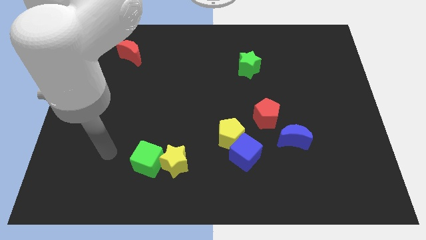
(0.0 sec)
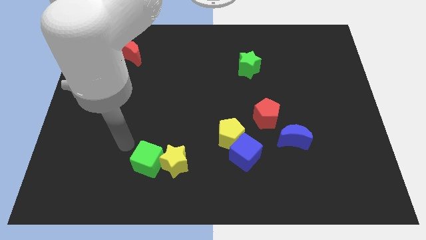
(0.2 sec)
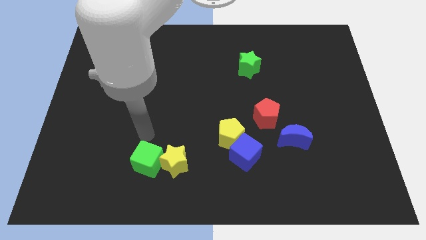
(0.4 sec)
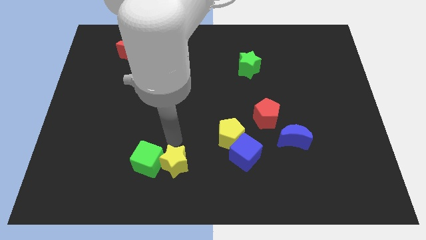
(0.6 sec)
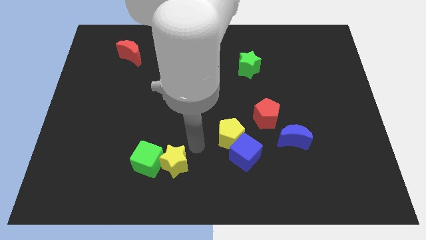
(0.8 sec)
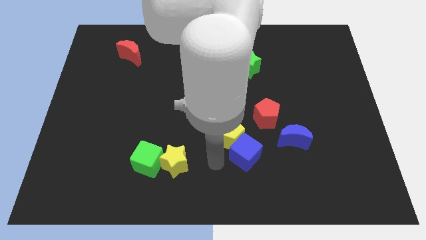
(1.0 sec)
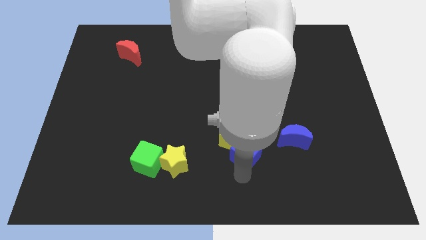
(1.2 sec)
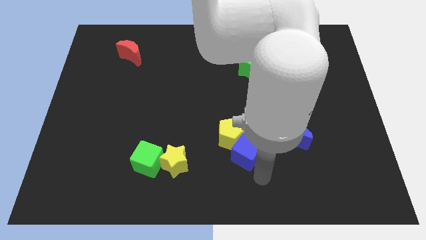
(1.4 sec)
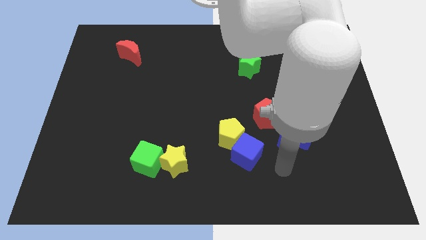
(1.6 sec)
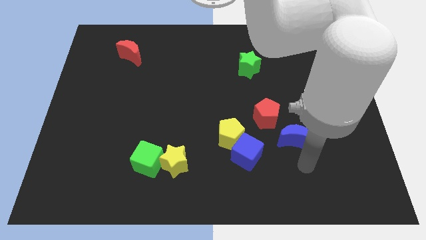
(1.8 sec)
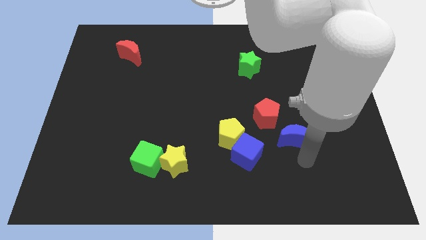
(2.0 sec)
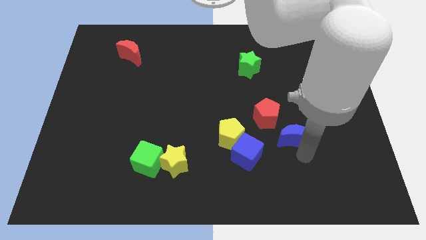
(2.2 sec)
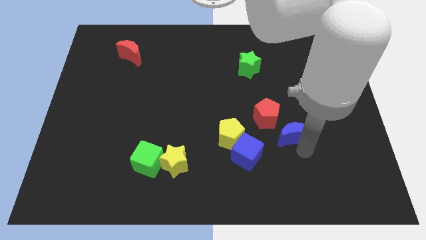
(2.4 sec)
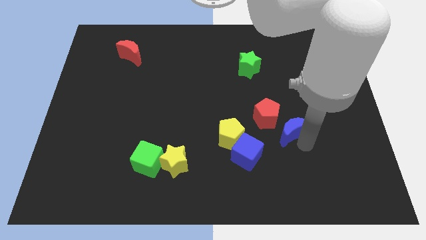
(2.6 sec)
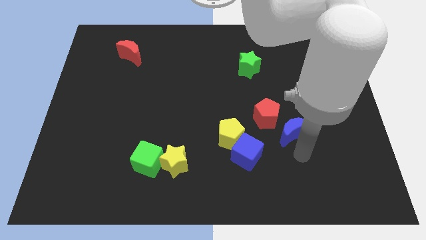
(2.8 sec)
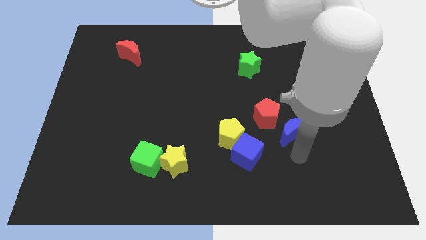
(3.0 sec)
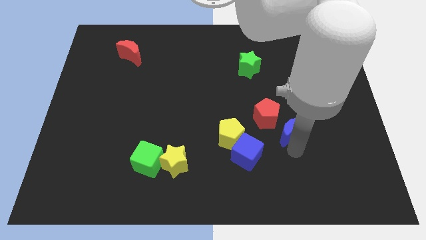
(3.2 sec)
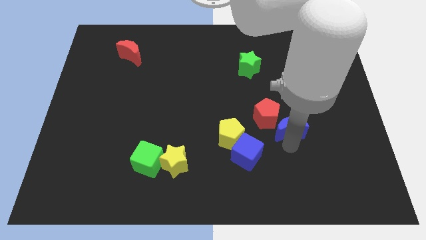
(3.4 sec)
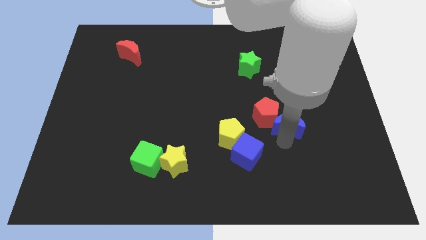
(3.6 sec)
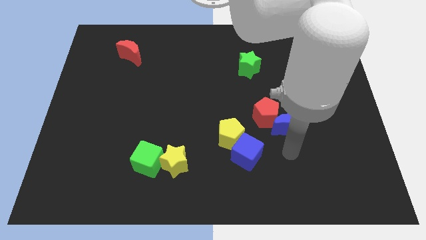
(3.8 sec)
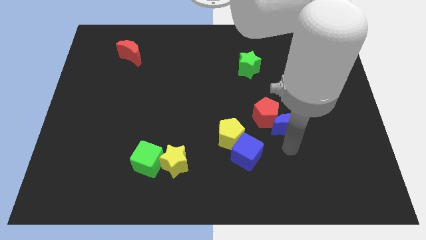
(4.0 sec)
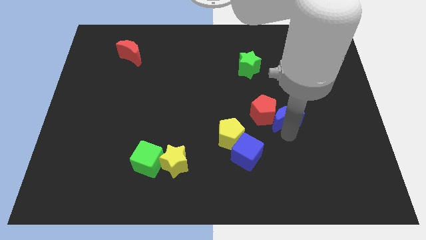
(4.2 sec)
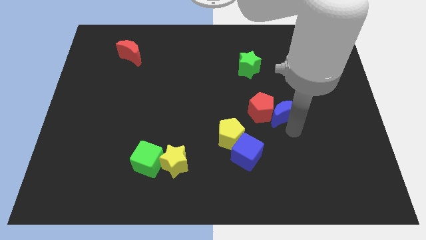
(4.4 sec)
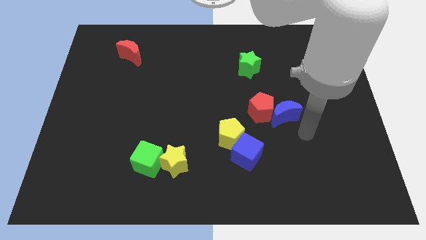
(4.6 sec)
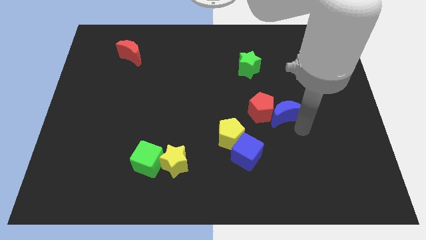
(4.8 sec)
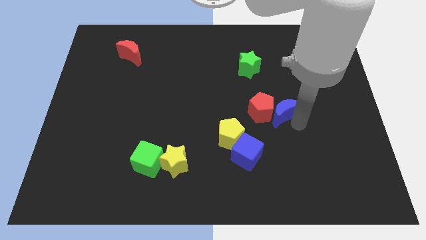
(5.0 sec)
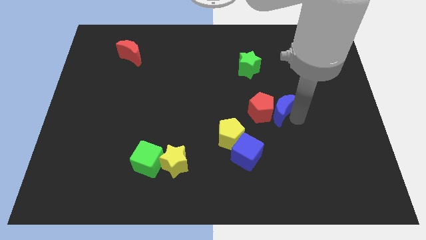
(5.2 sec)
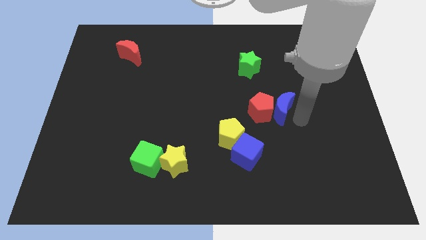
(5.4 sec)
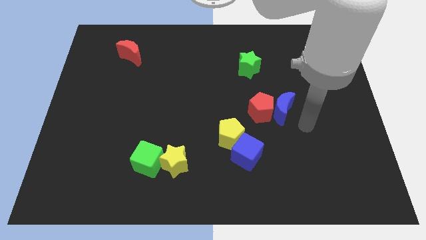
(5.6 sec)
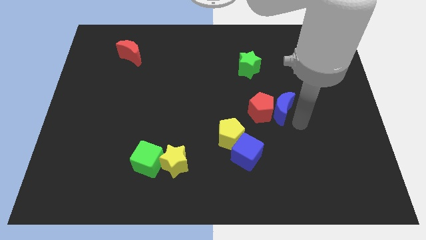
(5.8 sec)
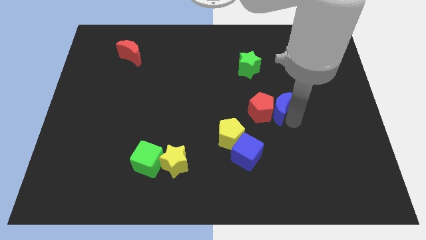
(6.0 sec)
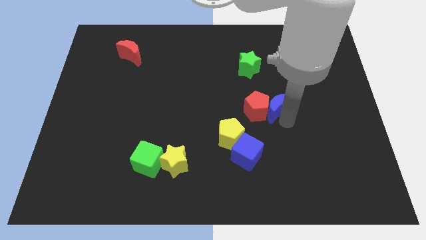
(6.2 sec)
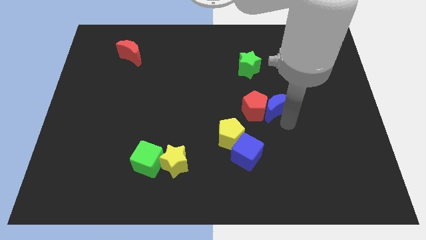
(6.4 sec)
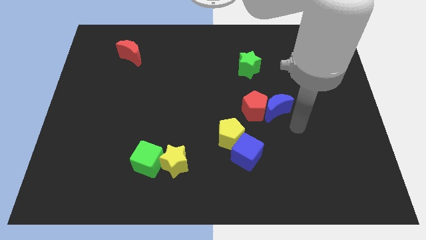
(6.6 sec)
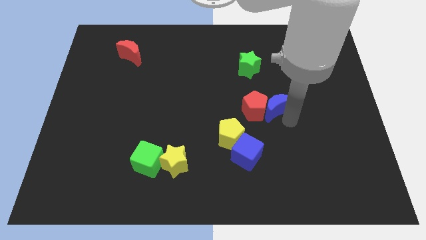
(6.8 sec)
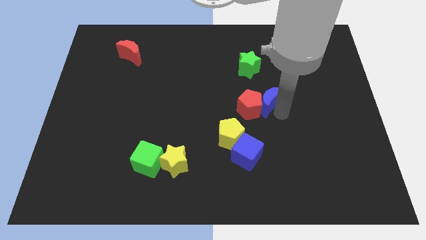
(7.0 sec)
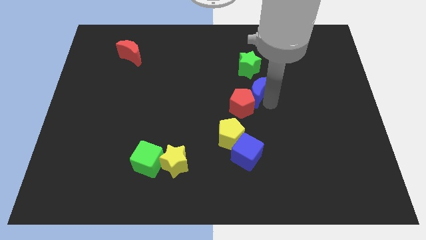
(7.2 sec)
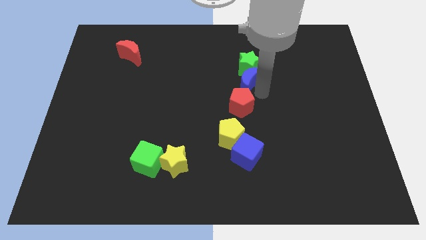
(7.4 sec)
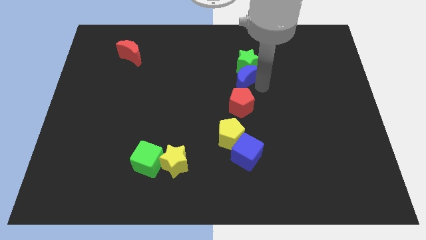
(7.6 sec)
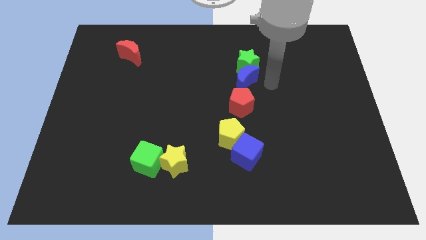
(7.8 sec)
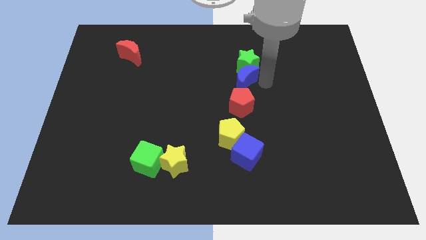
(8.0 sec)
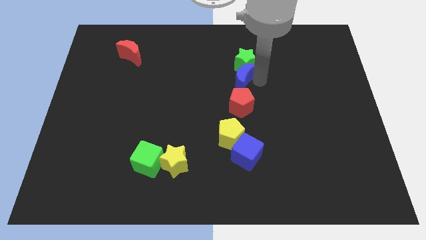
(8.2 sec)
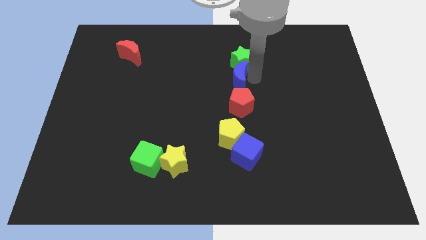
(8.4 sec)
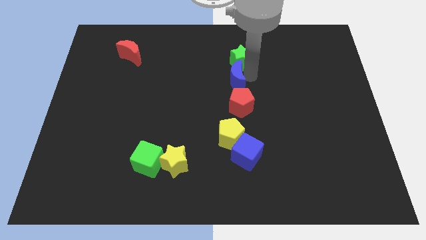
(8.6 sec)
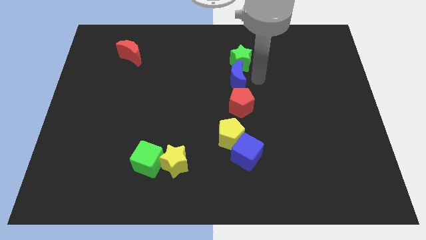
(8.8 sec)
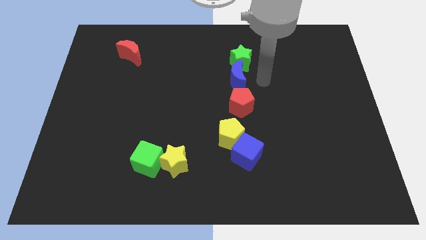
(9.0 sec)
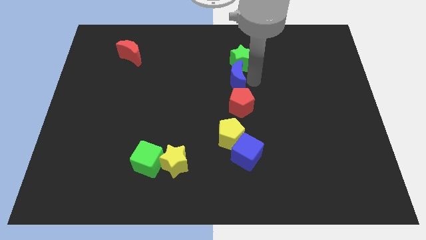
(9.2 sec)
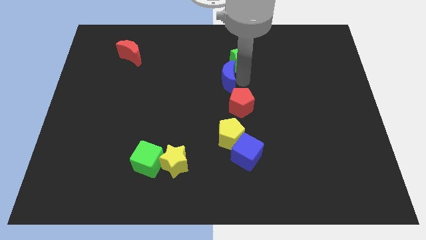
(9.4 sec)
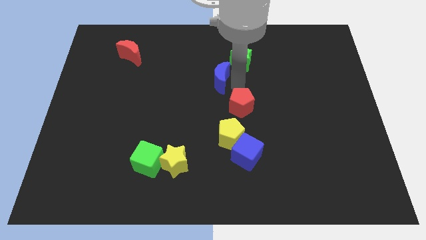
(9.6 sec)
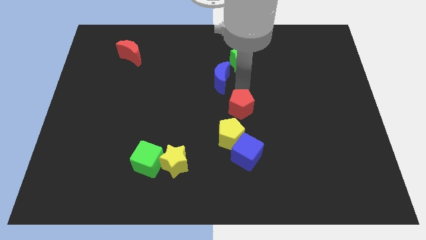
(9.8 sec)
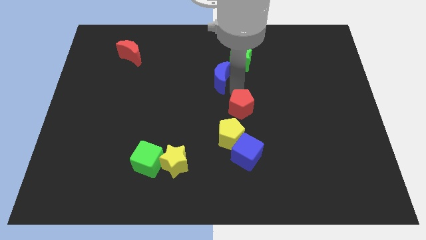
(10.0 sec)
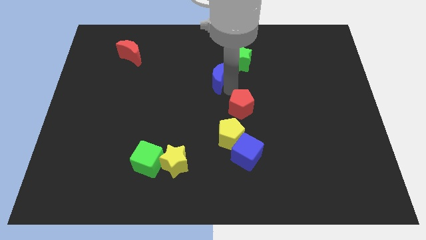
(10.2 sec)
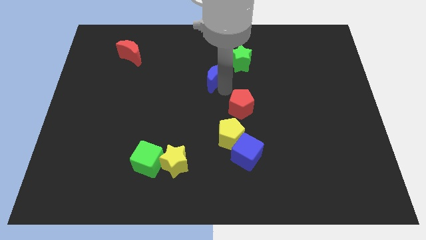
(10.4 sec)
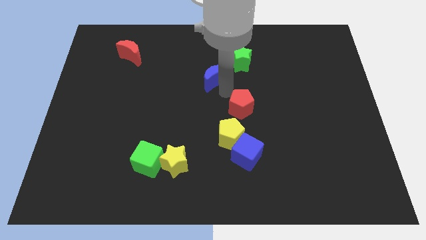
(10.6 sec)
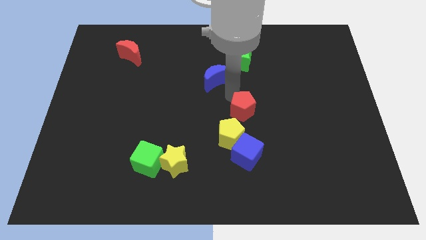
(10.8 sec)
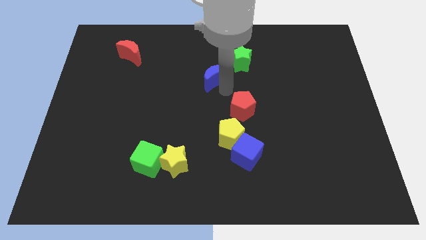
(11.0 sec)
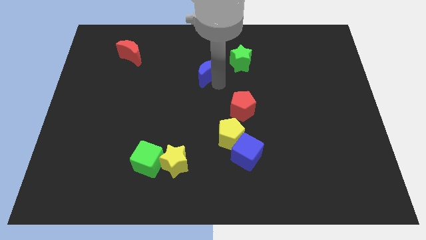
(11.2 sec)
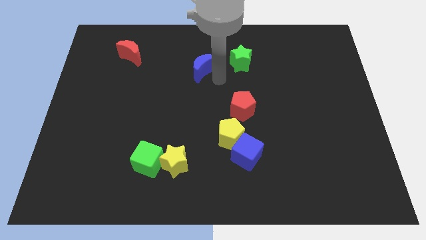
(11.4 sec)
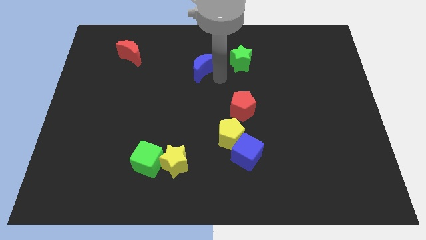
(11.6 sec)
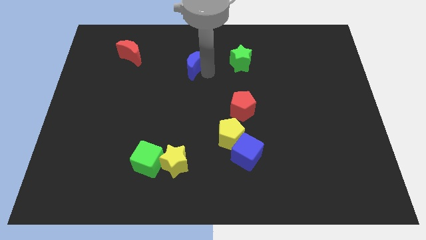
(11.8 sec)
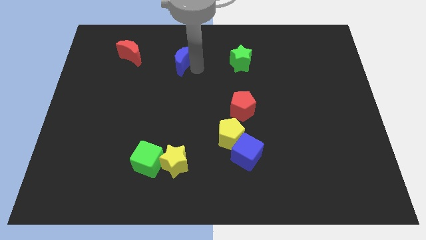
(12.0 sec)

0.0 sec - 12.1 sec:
push the blue moon to the right of the red moon

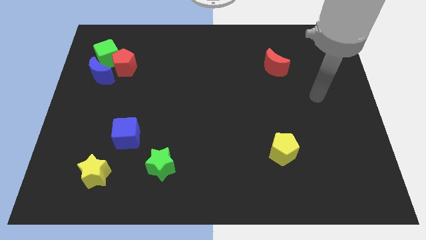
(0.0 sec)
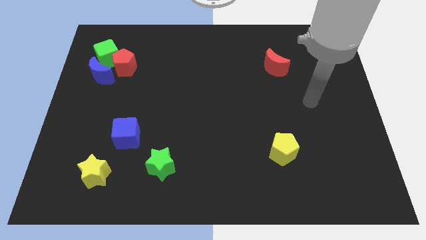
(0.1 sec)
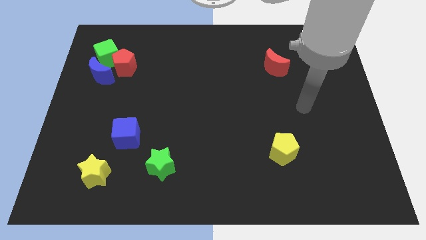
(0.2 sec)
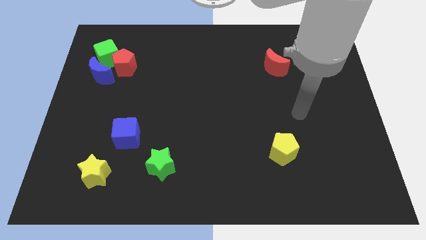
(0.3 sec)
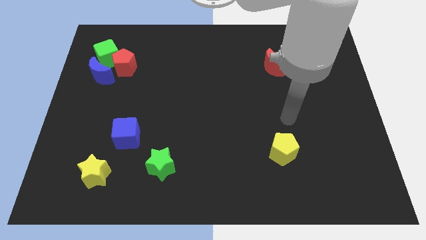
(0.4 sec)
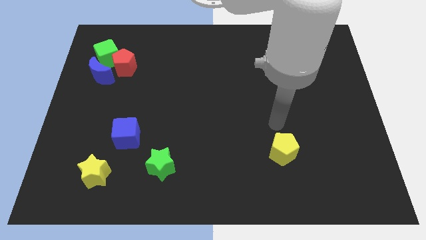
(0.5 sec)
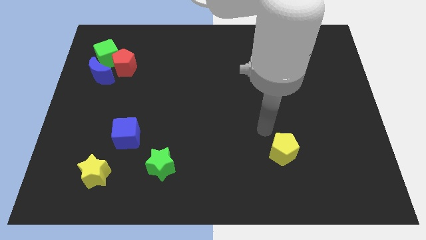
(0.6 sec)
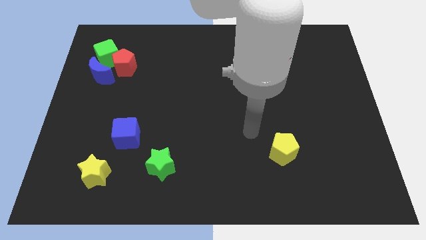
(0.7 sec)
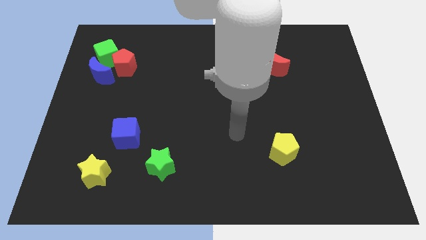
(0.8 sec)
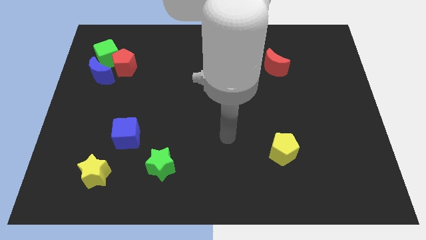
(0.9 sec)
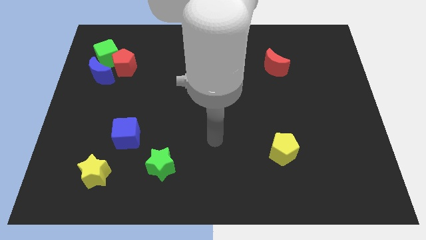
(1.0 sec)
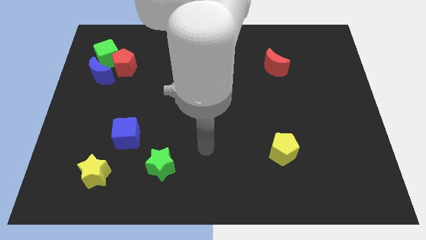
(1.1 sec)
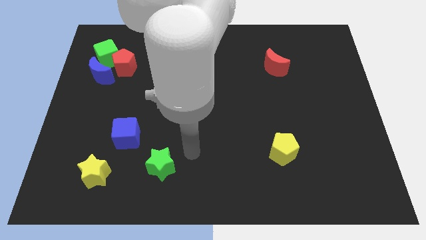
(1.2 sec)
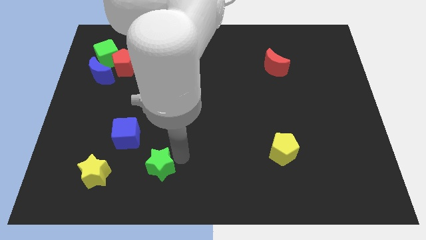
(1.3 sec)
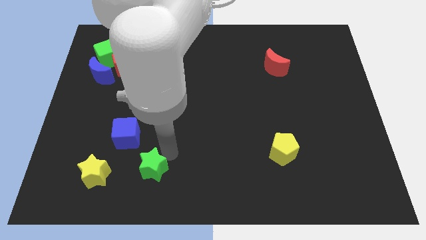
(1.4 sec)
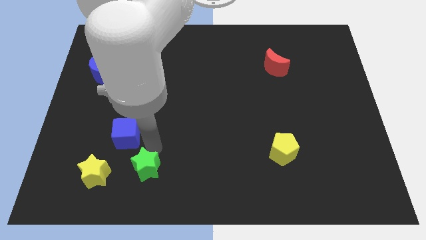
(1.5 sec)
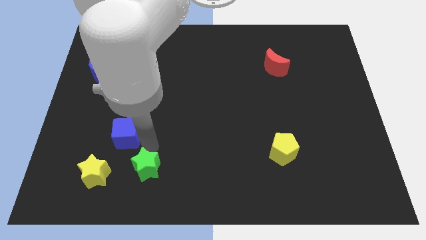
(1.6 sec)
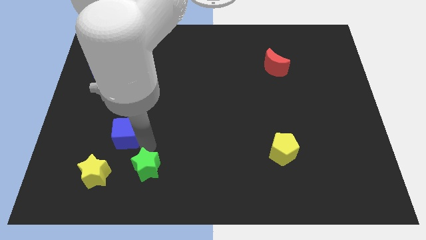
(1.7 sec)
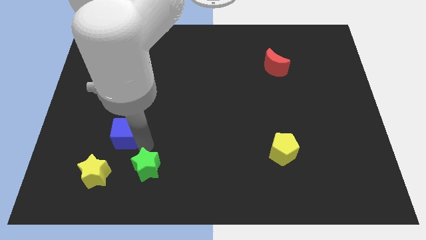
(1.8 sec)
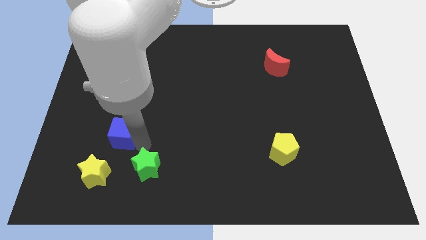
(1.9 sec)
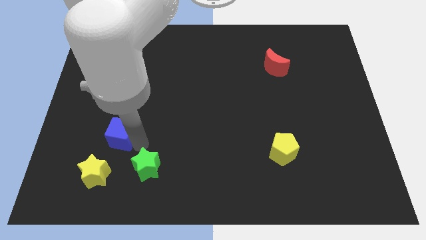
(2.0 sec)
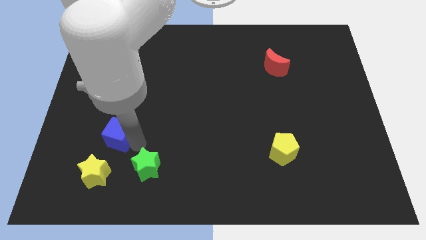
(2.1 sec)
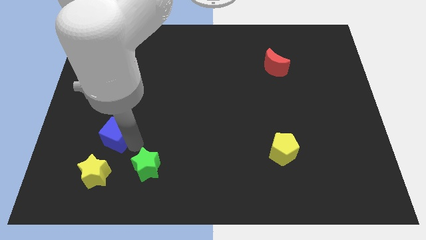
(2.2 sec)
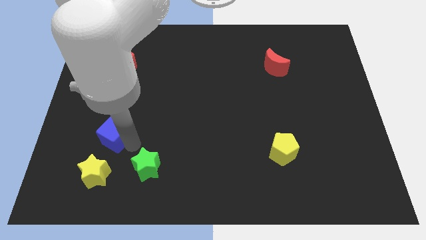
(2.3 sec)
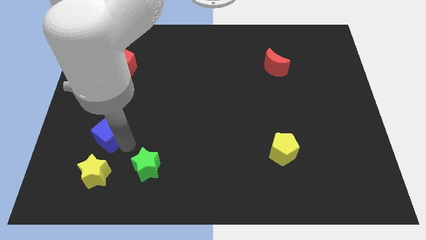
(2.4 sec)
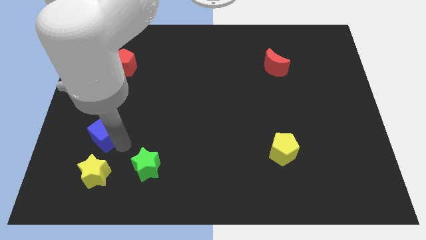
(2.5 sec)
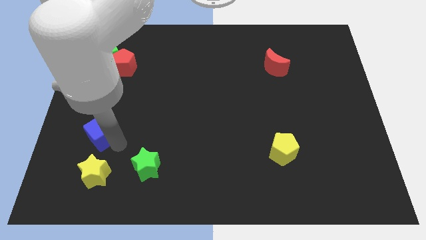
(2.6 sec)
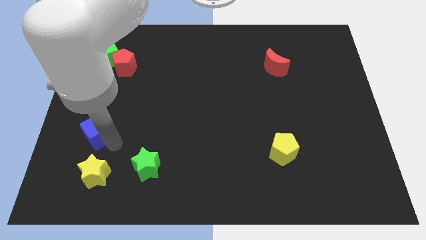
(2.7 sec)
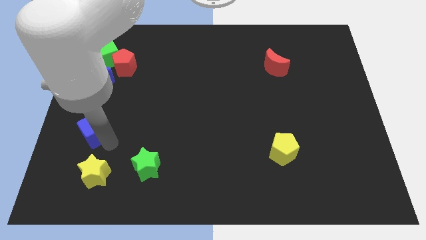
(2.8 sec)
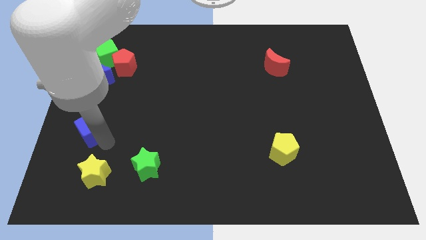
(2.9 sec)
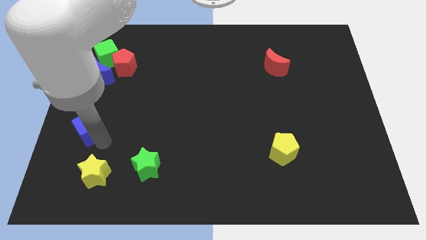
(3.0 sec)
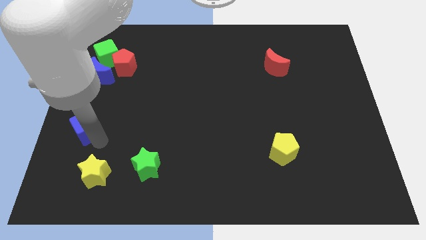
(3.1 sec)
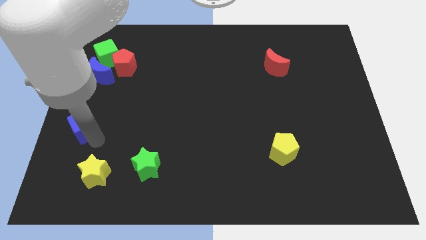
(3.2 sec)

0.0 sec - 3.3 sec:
slide the blue cube below the blue moon
